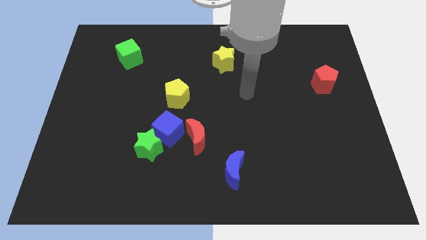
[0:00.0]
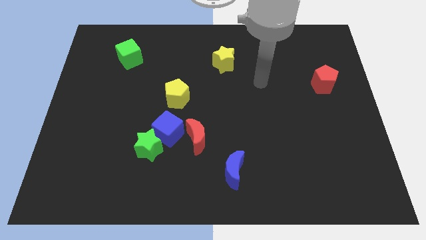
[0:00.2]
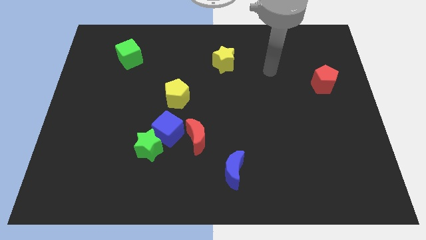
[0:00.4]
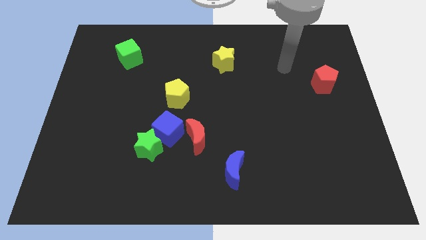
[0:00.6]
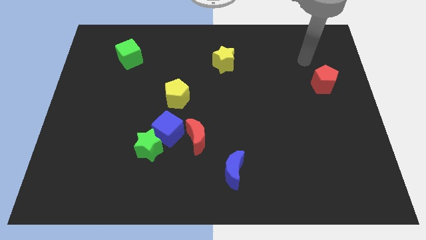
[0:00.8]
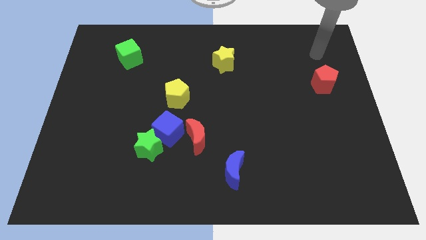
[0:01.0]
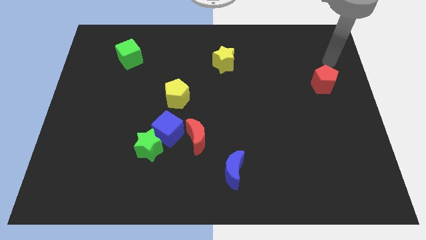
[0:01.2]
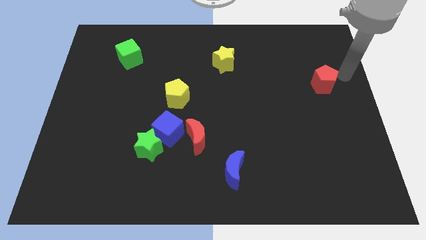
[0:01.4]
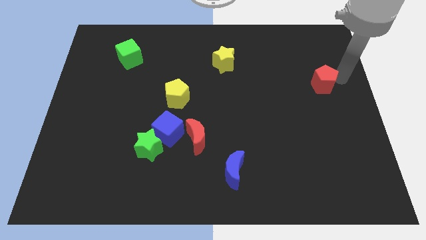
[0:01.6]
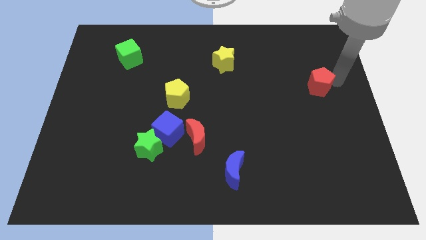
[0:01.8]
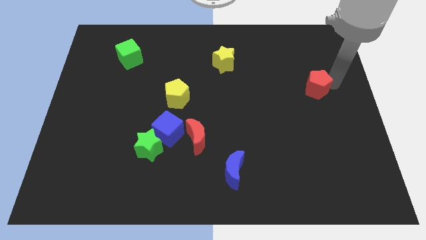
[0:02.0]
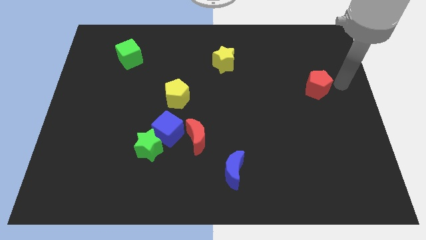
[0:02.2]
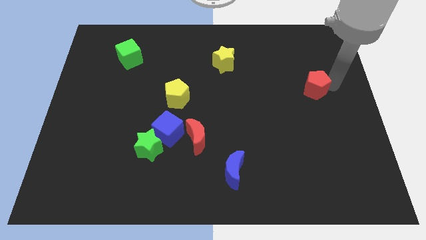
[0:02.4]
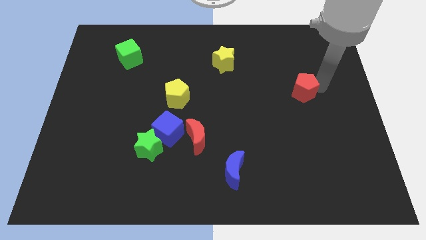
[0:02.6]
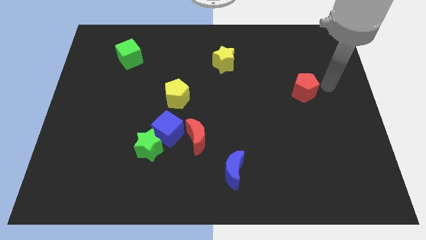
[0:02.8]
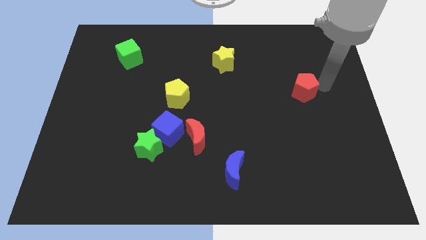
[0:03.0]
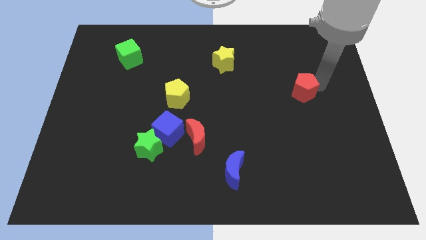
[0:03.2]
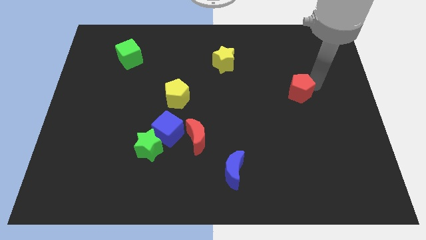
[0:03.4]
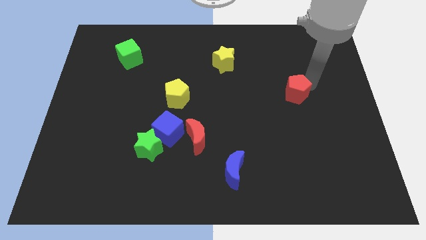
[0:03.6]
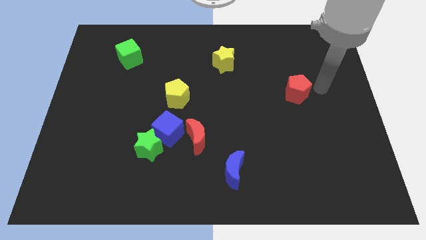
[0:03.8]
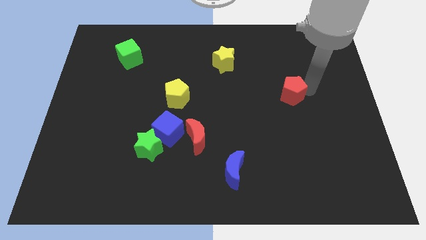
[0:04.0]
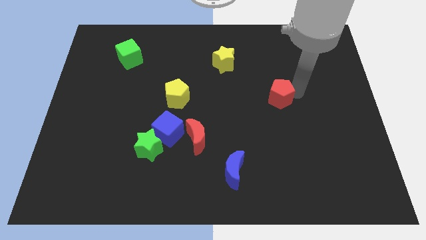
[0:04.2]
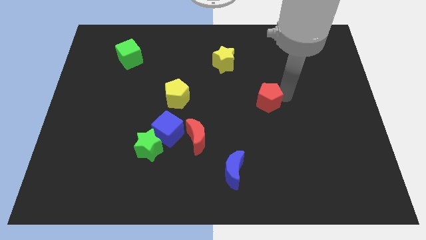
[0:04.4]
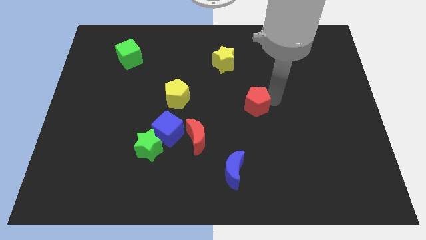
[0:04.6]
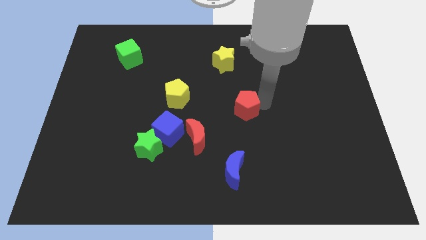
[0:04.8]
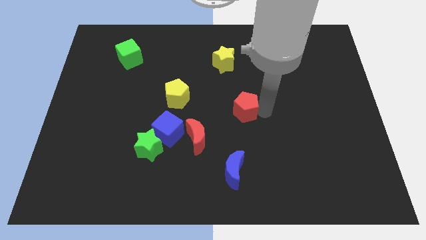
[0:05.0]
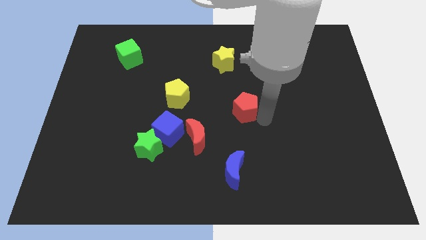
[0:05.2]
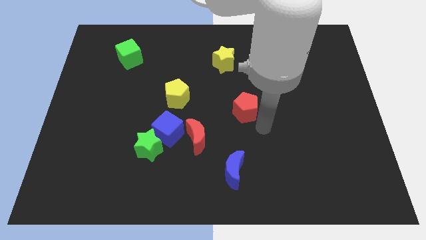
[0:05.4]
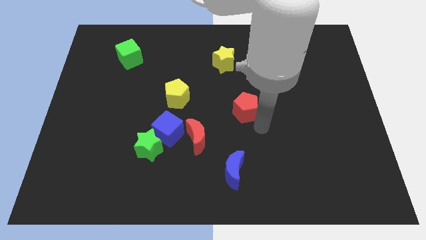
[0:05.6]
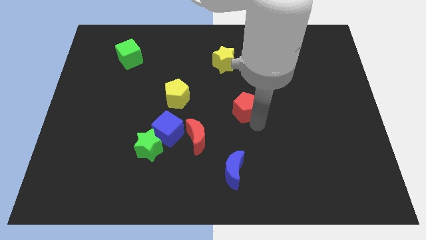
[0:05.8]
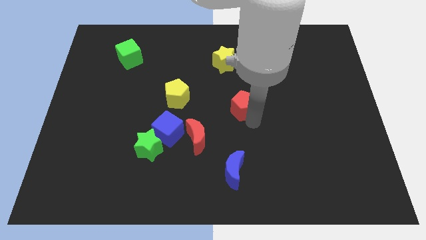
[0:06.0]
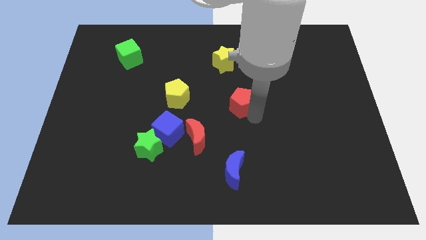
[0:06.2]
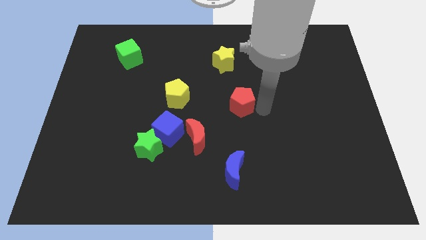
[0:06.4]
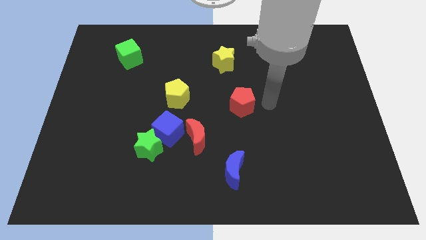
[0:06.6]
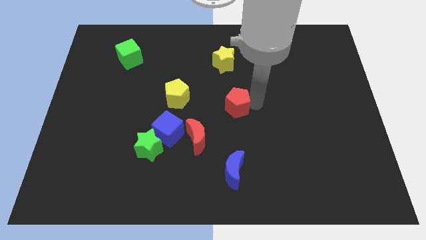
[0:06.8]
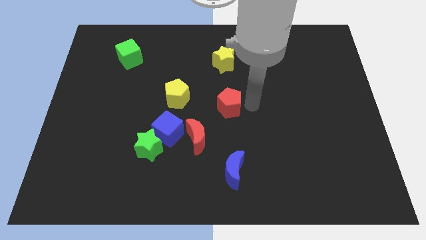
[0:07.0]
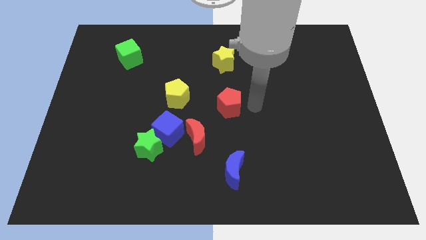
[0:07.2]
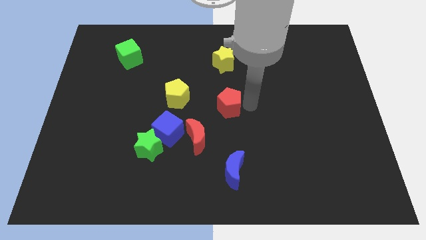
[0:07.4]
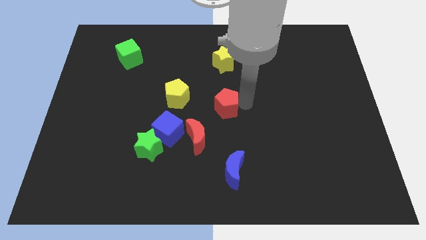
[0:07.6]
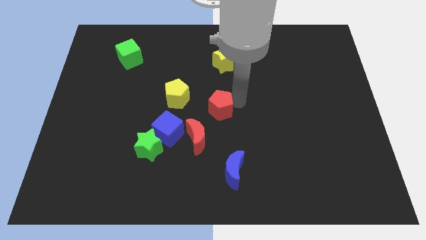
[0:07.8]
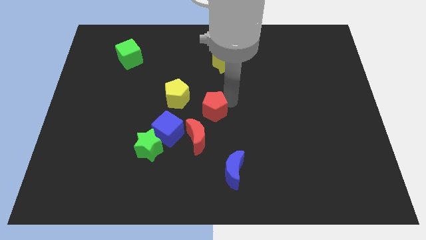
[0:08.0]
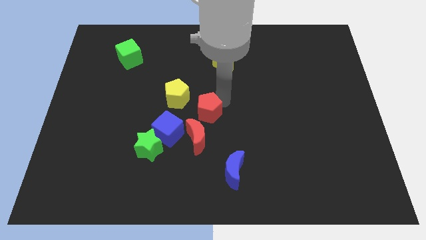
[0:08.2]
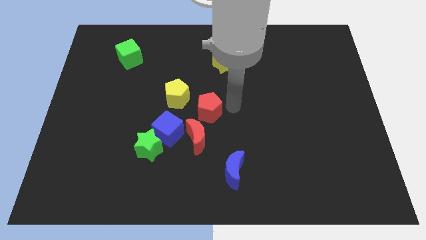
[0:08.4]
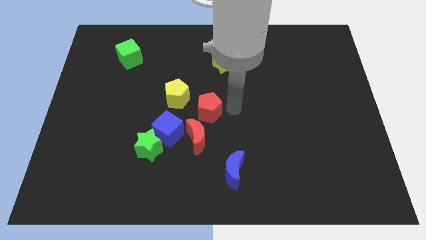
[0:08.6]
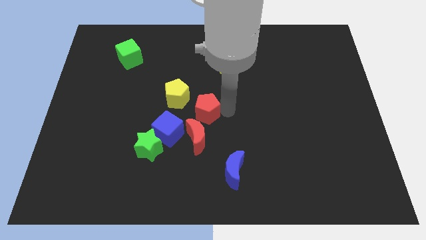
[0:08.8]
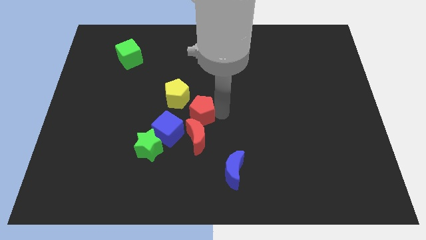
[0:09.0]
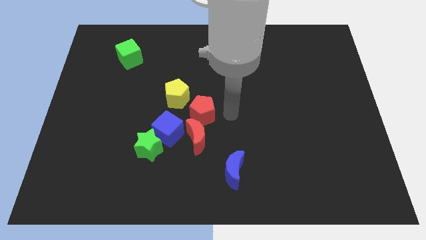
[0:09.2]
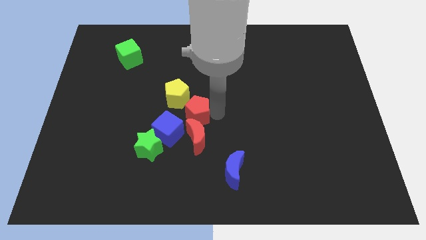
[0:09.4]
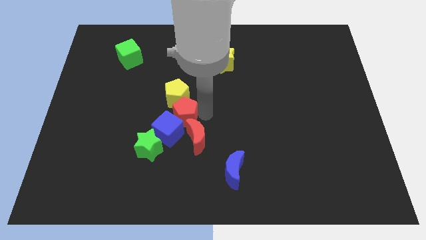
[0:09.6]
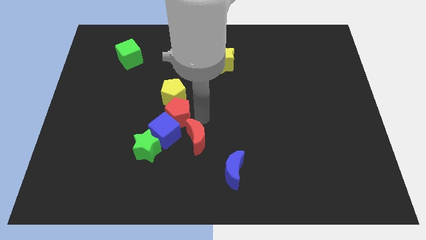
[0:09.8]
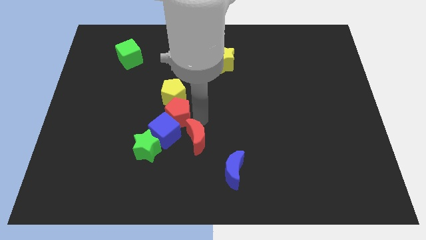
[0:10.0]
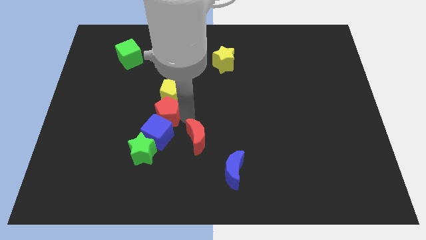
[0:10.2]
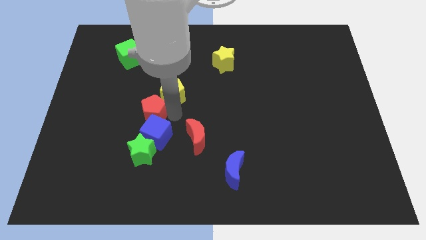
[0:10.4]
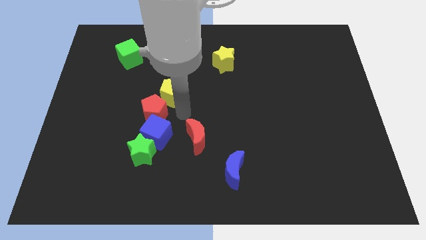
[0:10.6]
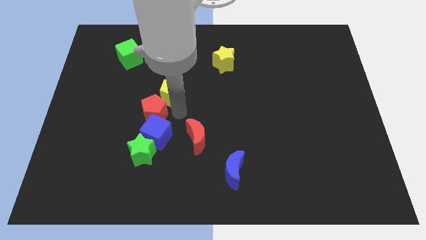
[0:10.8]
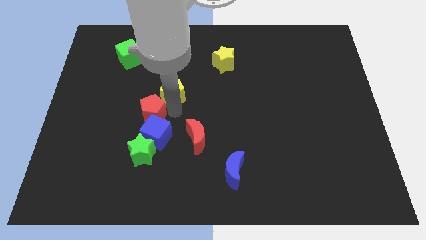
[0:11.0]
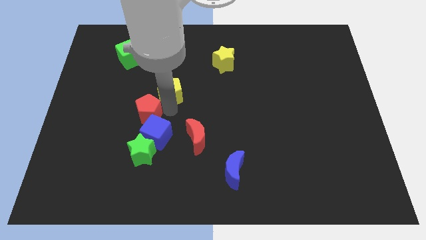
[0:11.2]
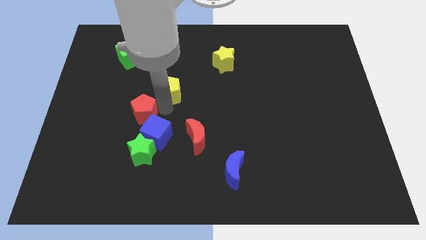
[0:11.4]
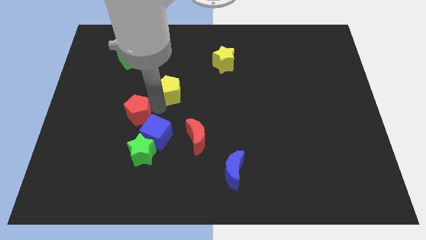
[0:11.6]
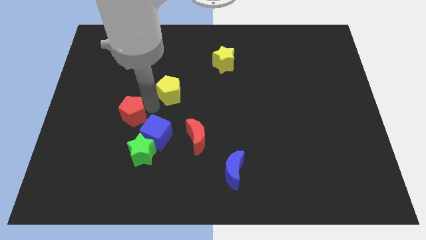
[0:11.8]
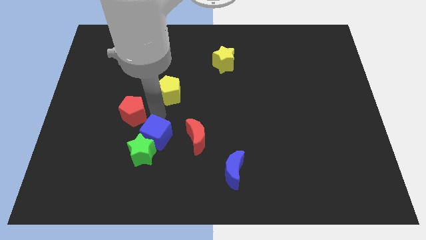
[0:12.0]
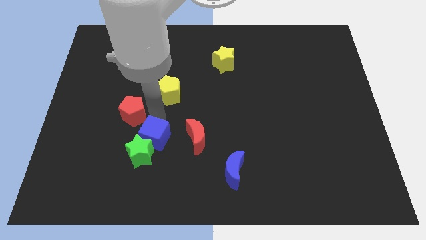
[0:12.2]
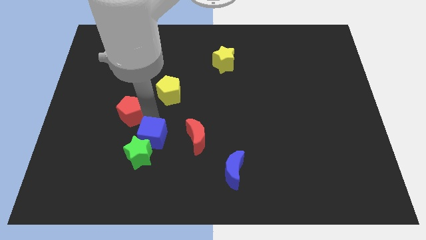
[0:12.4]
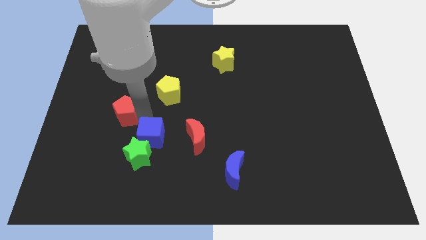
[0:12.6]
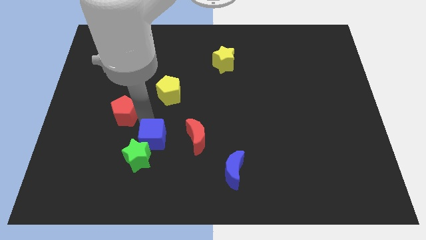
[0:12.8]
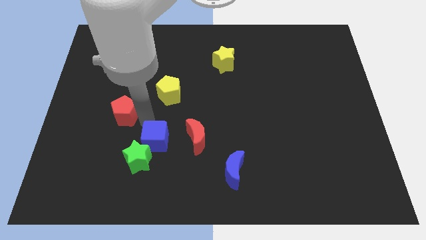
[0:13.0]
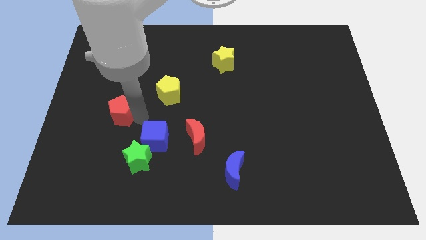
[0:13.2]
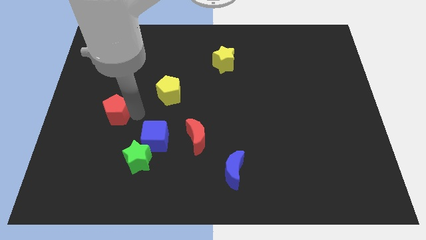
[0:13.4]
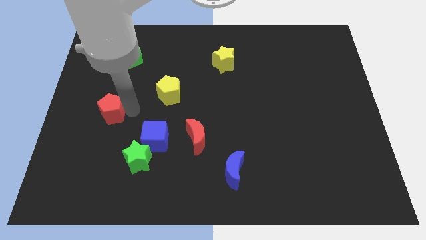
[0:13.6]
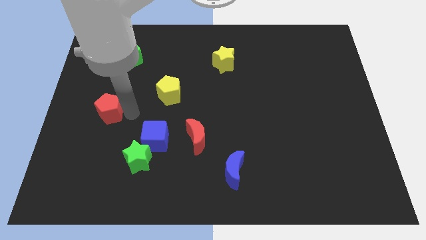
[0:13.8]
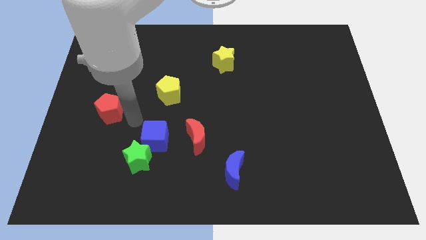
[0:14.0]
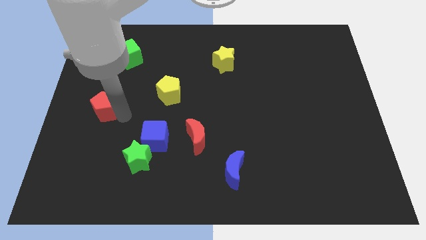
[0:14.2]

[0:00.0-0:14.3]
slide the red pentagon to the left side
